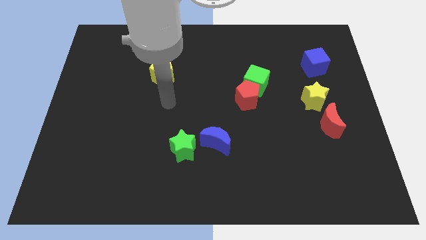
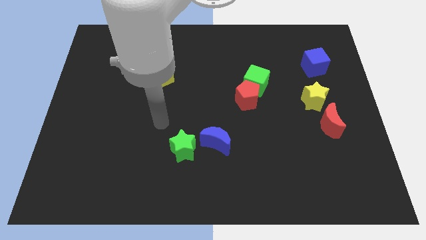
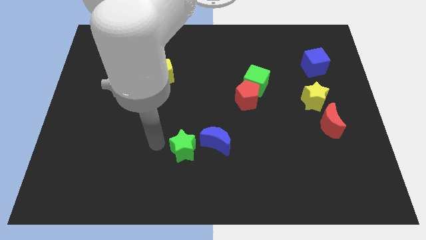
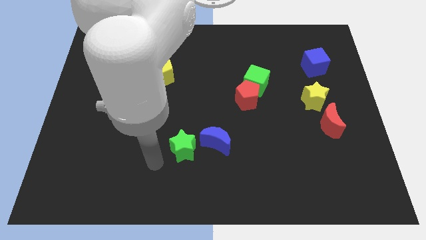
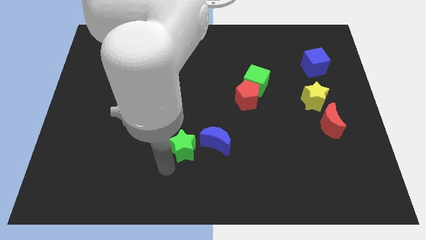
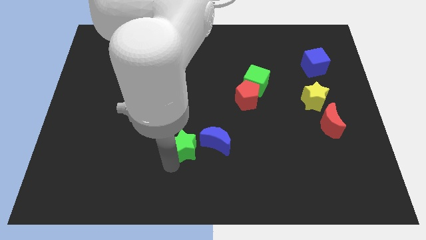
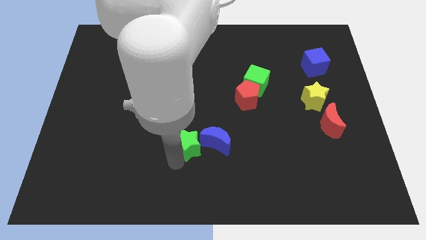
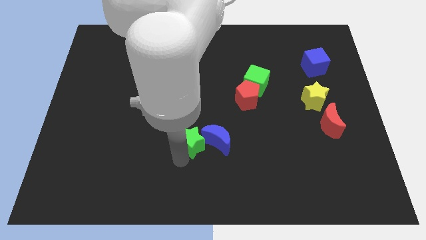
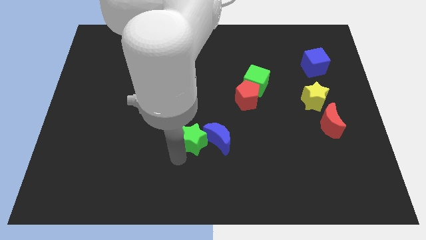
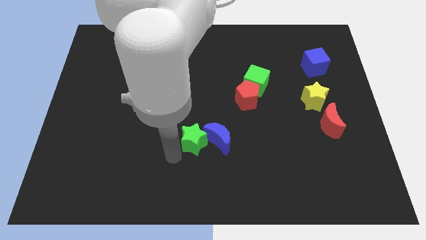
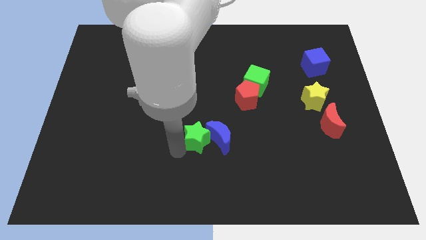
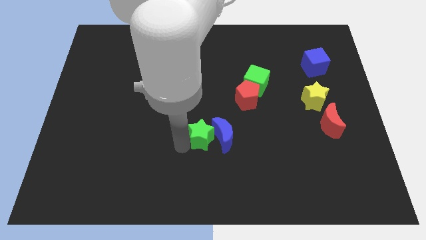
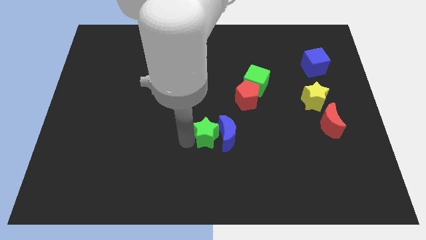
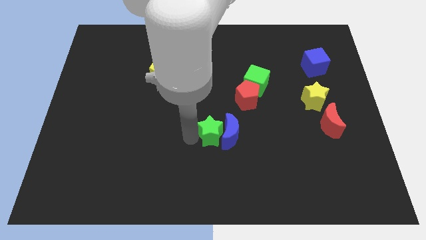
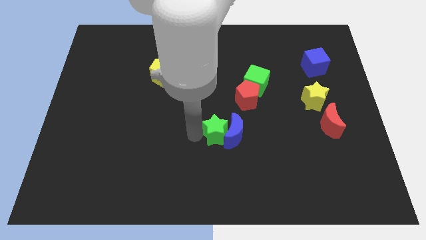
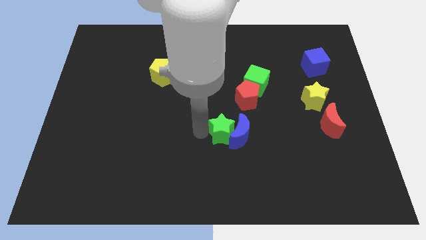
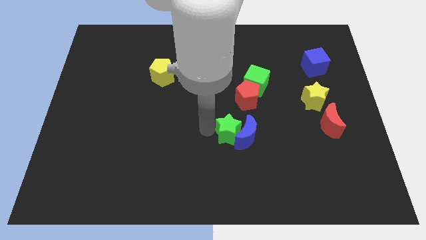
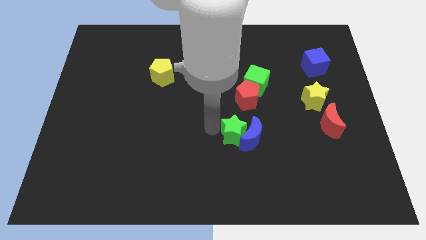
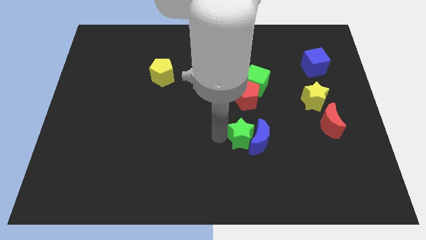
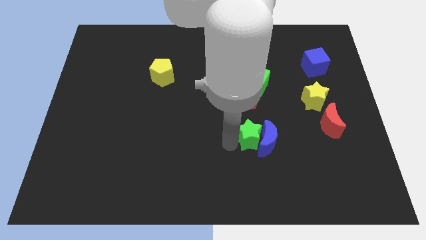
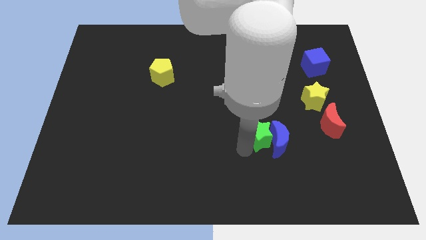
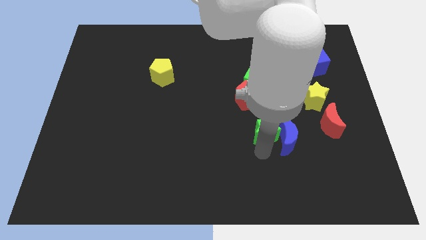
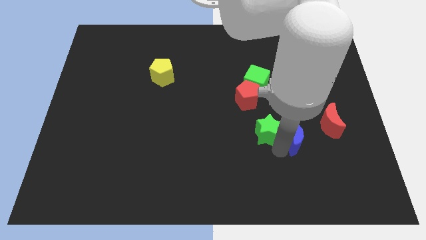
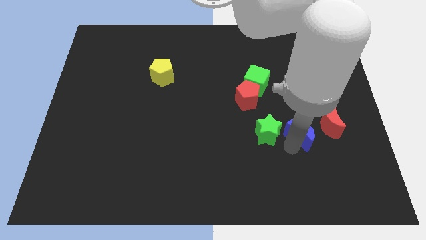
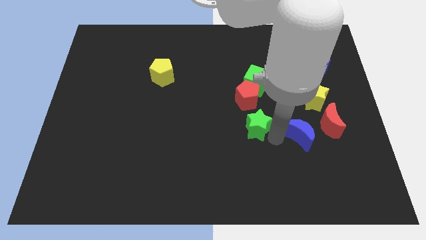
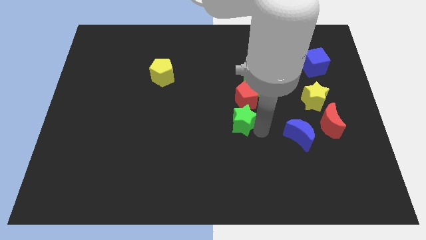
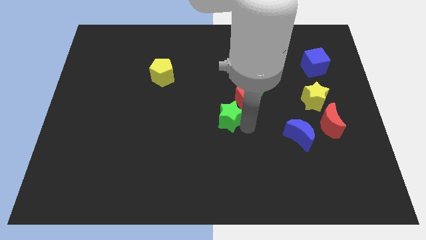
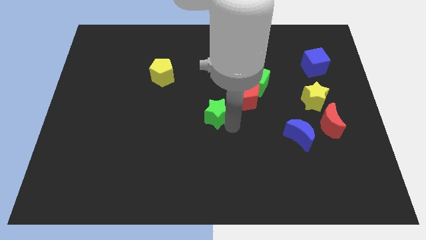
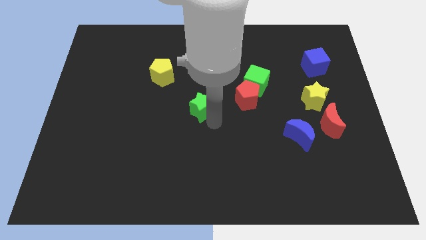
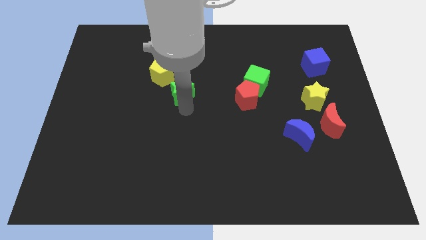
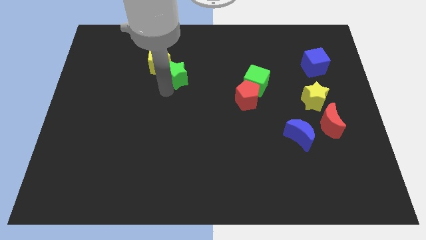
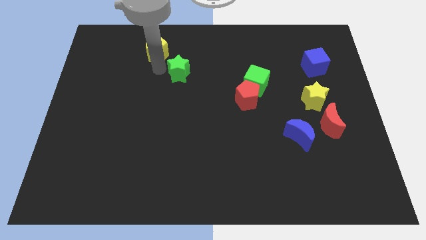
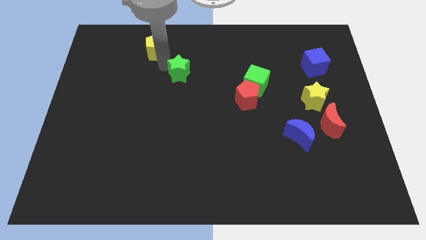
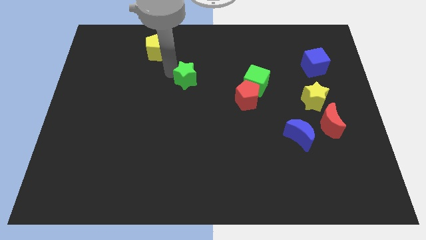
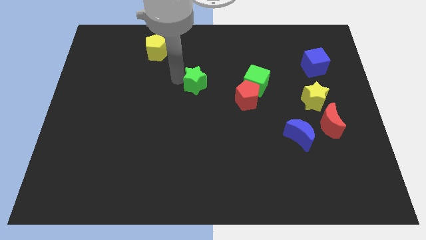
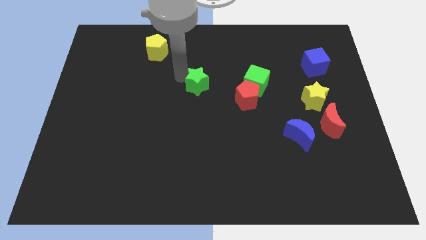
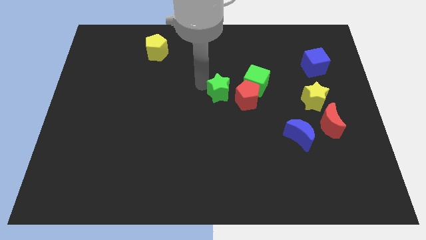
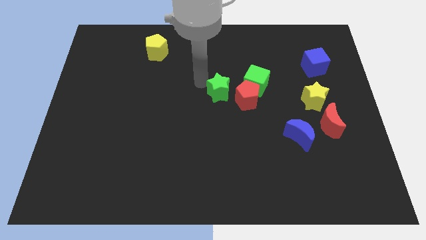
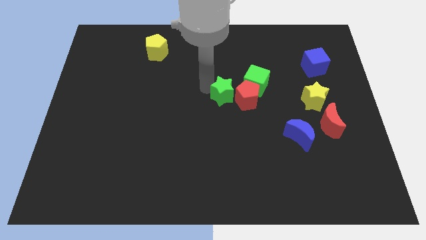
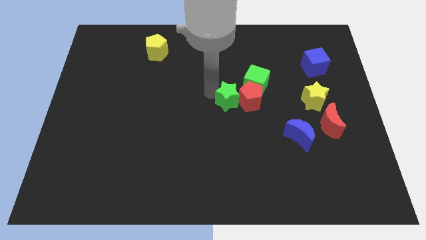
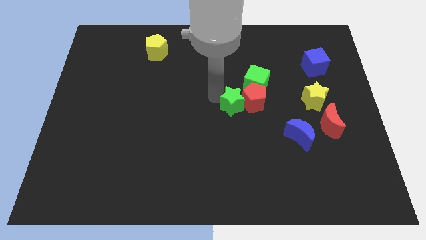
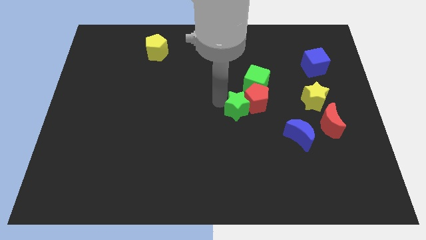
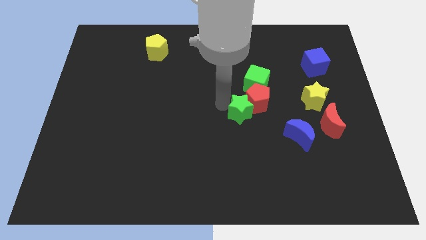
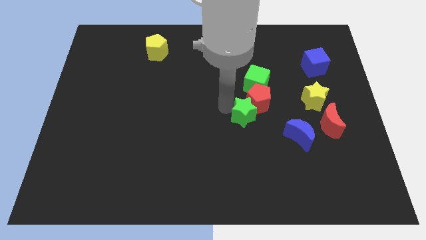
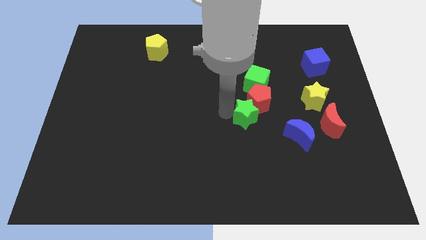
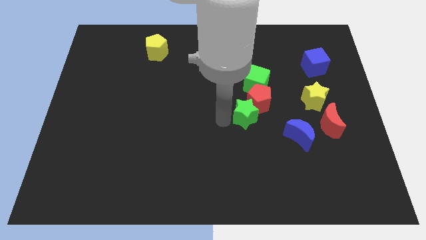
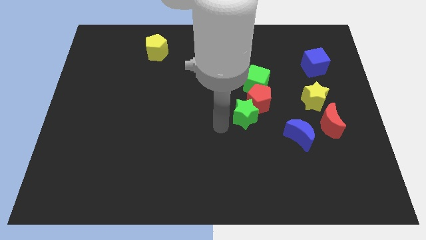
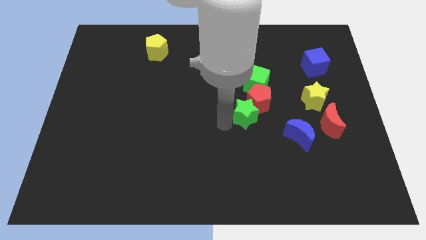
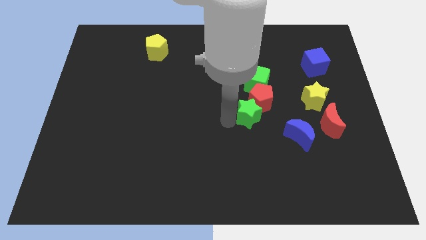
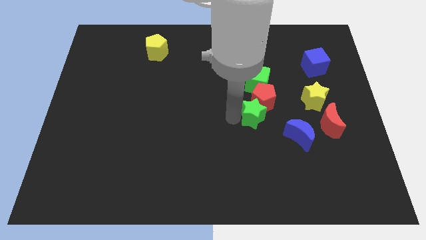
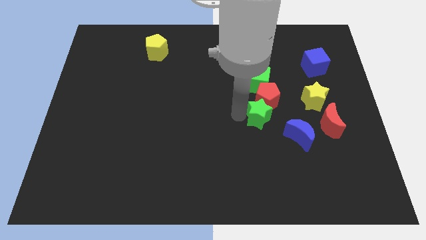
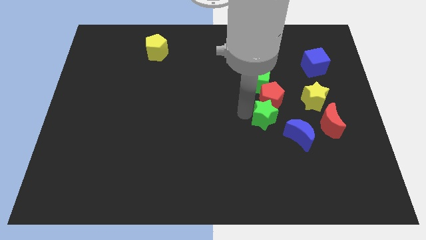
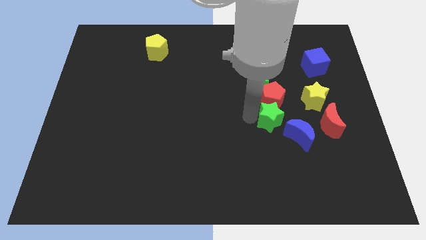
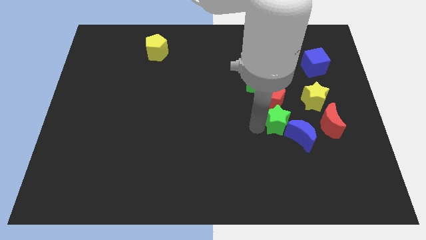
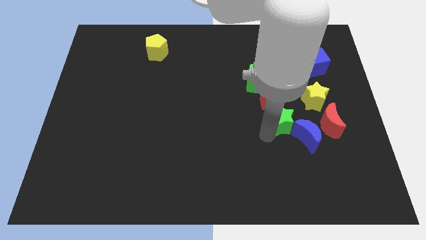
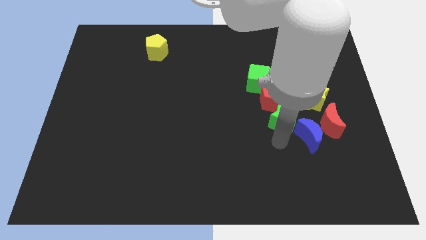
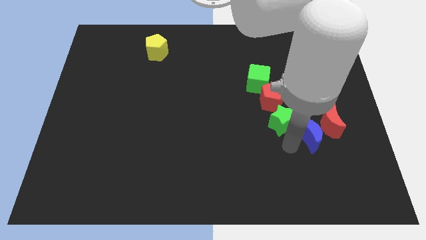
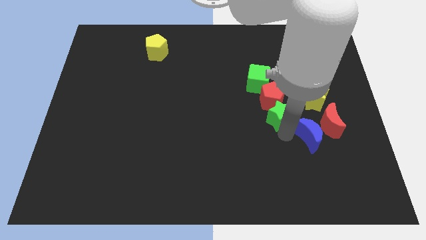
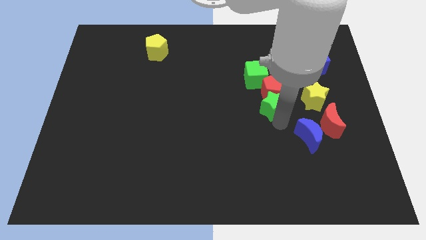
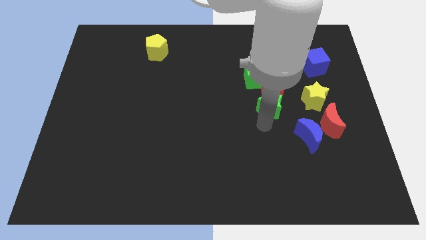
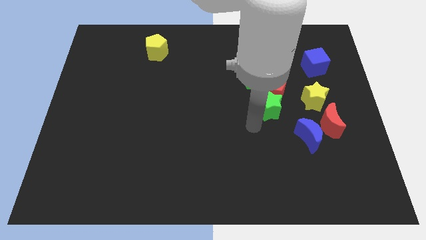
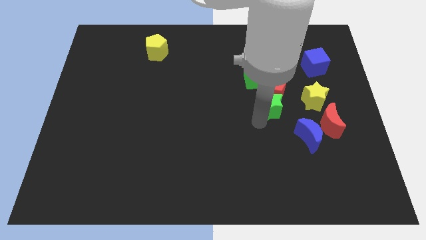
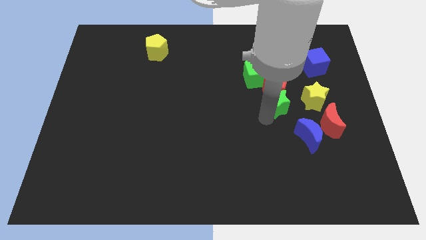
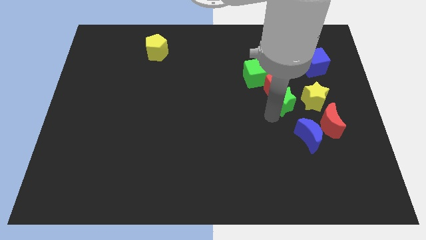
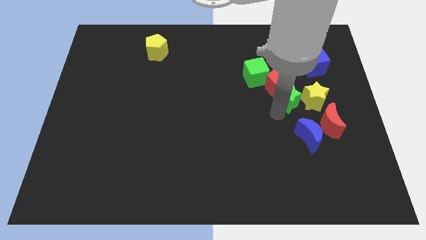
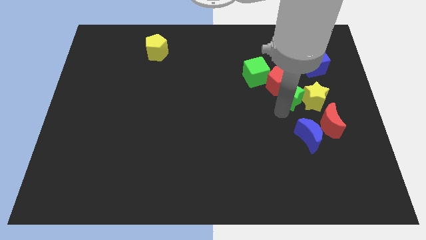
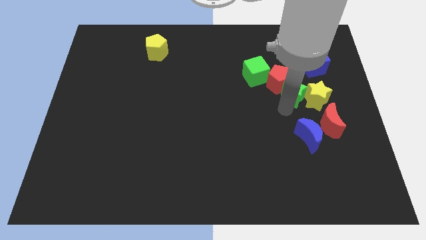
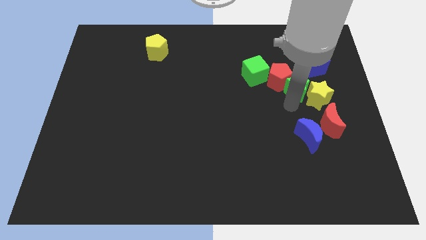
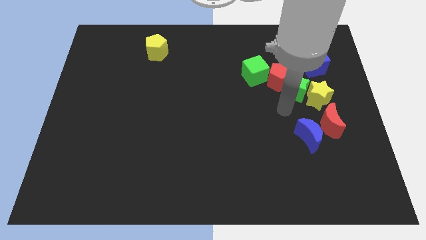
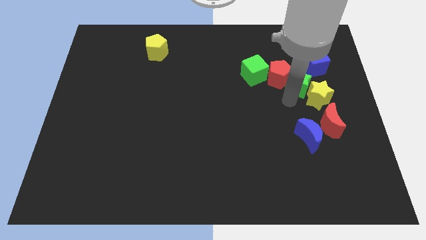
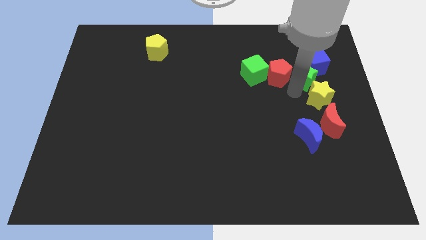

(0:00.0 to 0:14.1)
push the green star close to the blue cube
